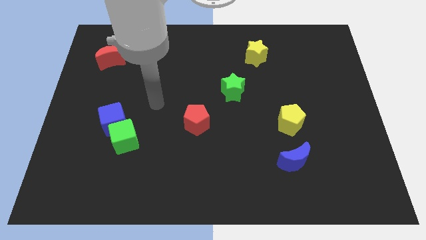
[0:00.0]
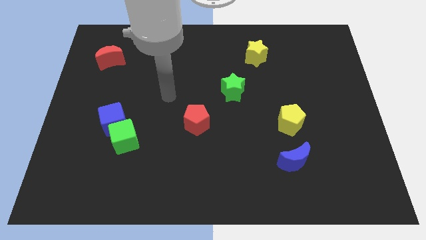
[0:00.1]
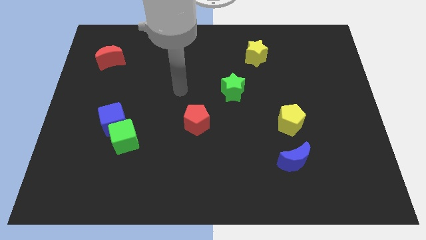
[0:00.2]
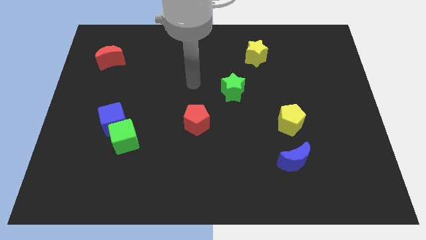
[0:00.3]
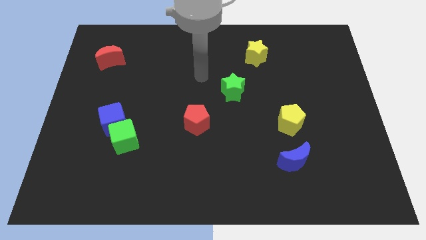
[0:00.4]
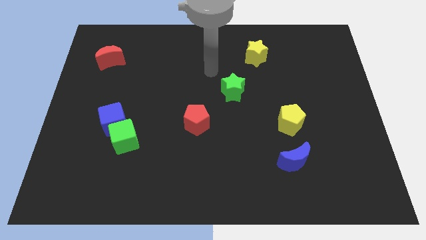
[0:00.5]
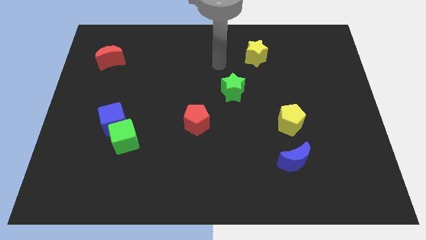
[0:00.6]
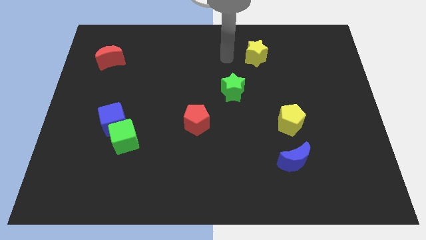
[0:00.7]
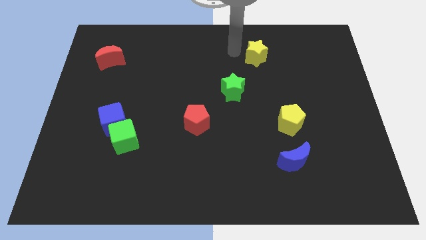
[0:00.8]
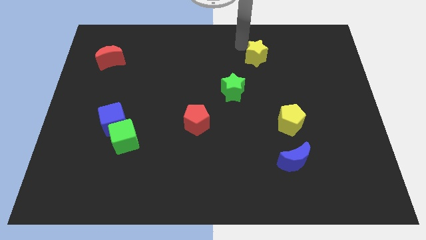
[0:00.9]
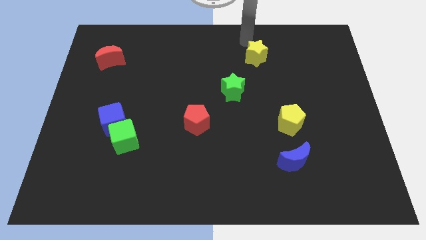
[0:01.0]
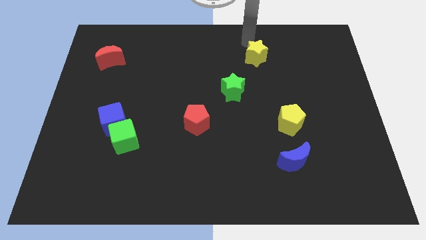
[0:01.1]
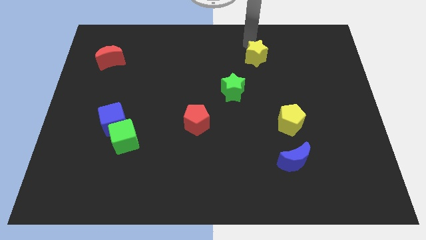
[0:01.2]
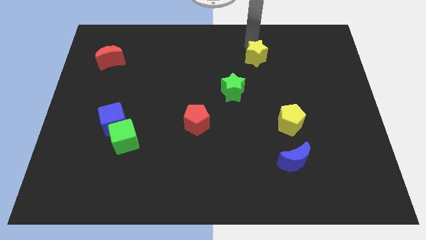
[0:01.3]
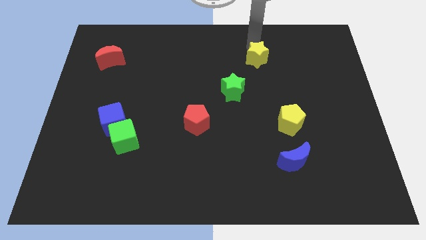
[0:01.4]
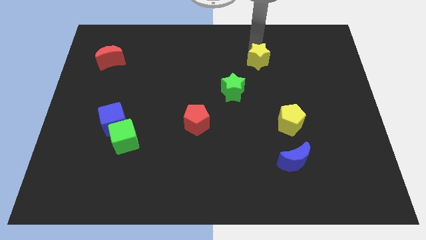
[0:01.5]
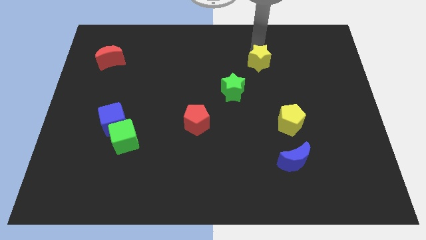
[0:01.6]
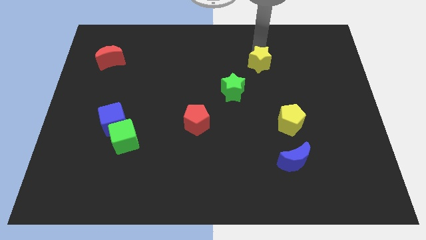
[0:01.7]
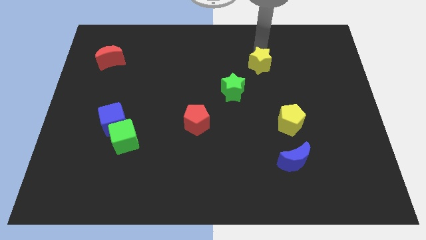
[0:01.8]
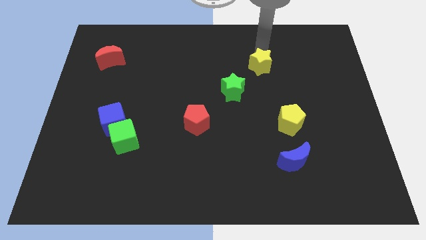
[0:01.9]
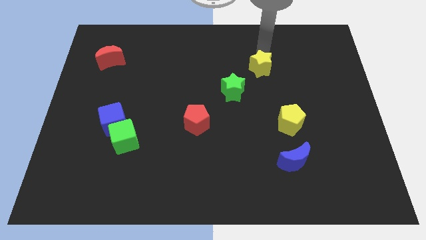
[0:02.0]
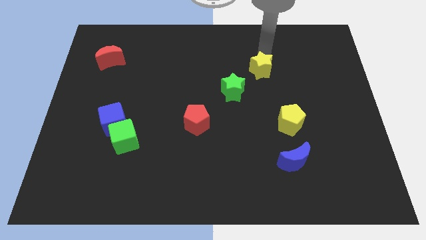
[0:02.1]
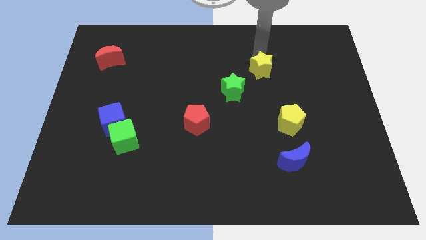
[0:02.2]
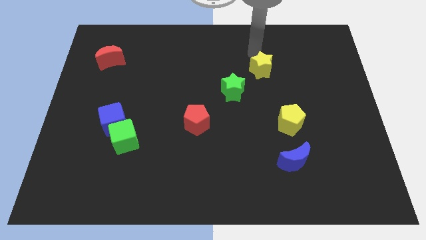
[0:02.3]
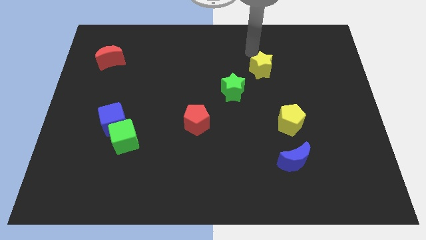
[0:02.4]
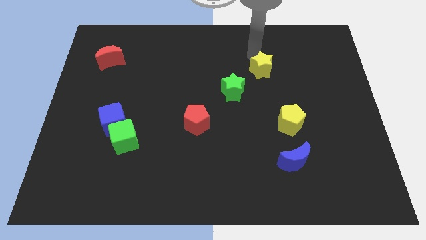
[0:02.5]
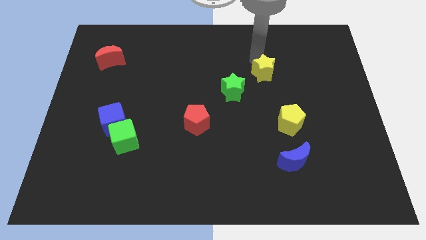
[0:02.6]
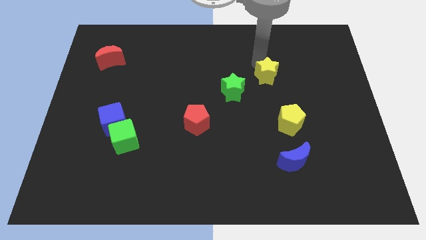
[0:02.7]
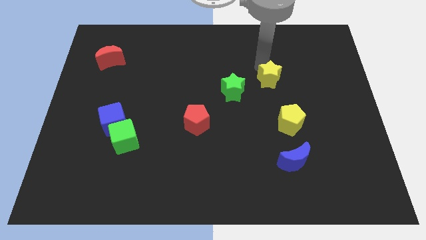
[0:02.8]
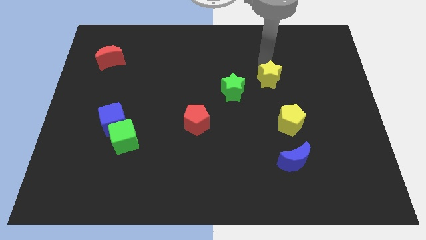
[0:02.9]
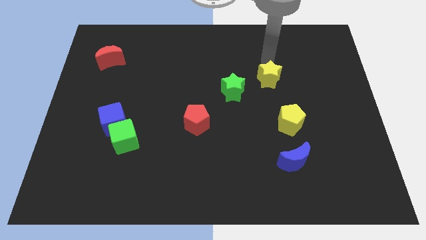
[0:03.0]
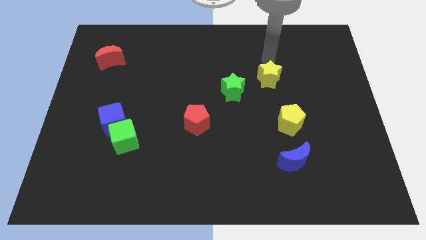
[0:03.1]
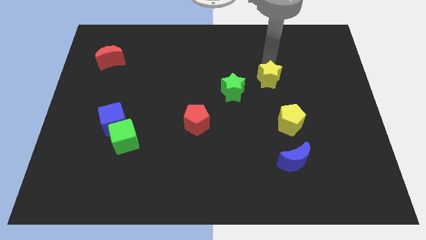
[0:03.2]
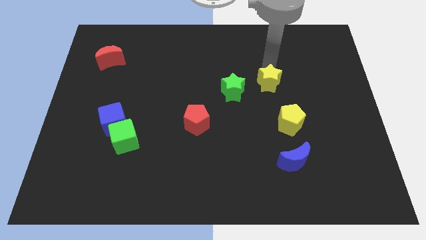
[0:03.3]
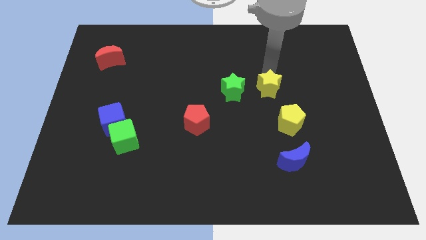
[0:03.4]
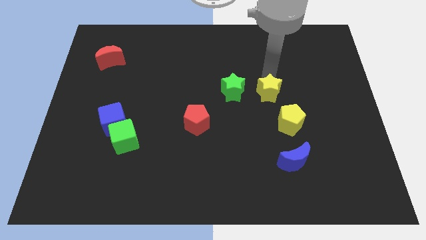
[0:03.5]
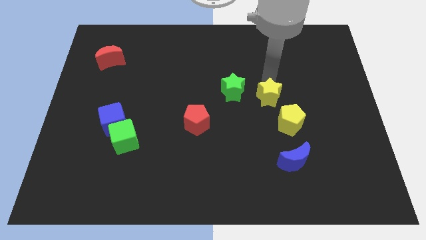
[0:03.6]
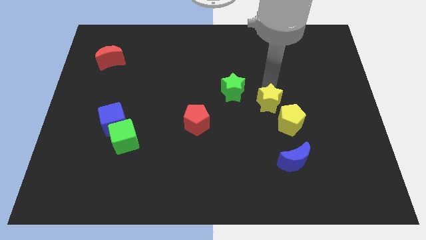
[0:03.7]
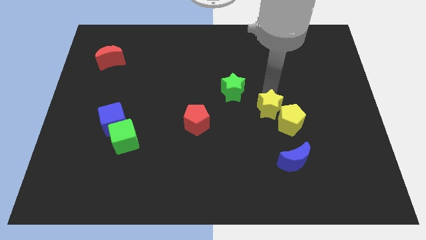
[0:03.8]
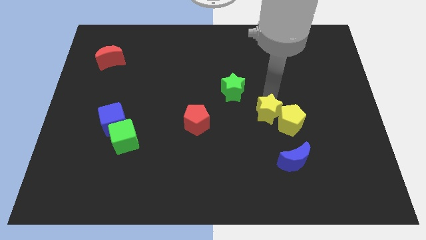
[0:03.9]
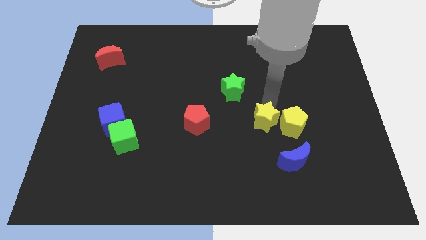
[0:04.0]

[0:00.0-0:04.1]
slide the yellow star downwards

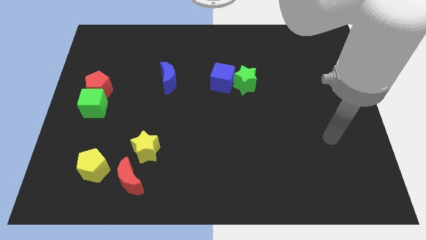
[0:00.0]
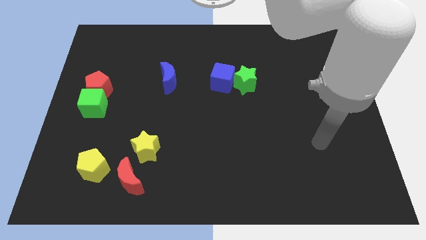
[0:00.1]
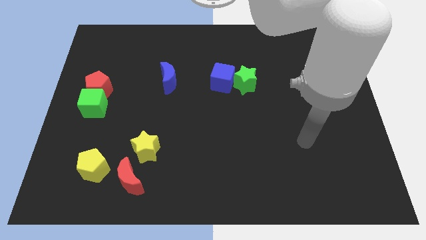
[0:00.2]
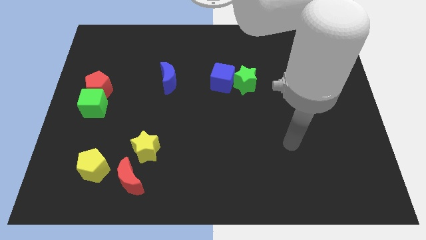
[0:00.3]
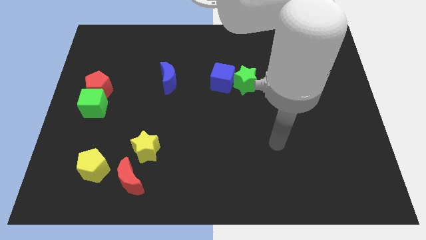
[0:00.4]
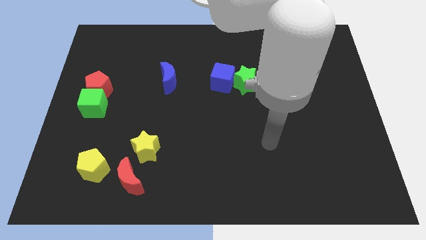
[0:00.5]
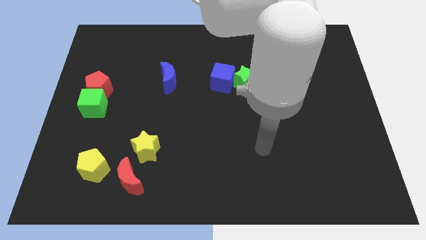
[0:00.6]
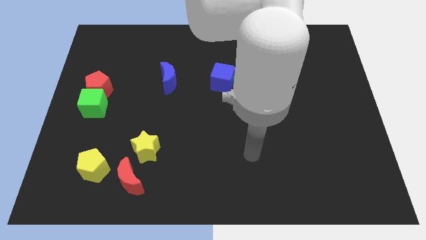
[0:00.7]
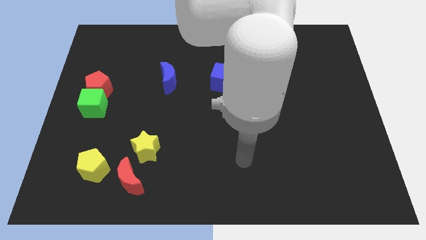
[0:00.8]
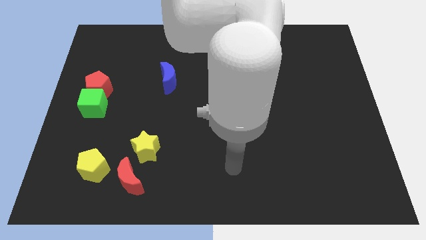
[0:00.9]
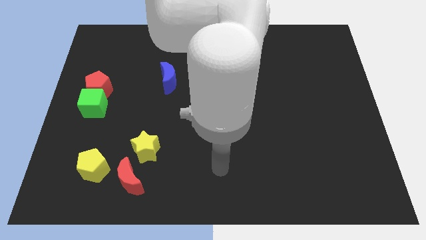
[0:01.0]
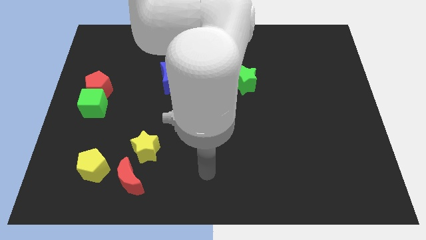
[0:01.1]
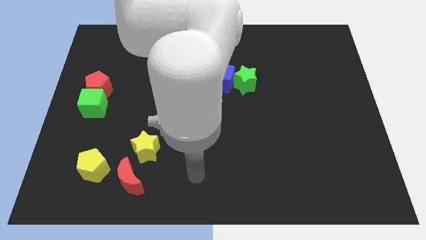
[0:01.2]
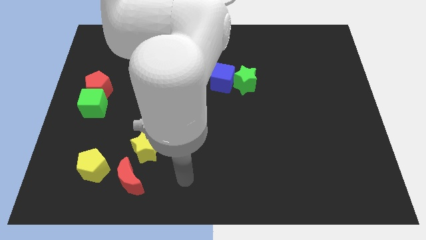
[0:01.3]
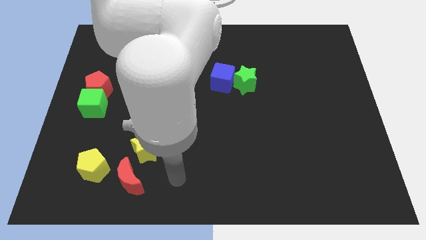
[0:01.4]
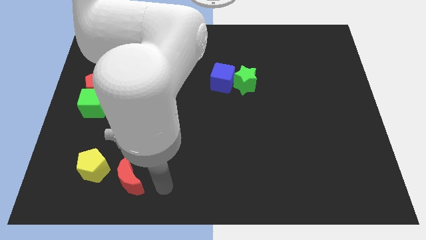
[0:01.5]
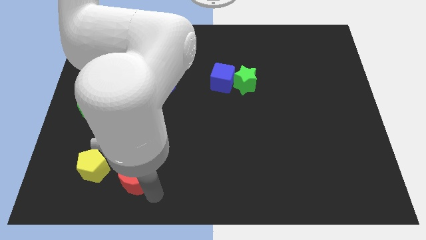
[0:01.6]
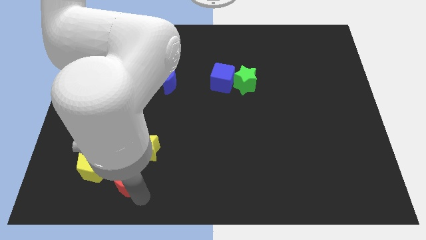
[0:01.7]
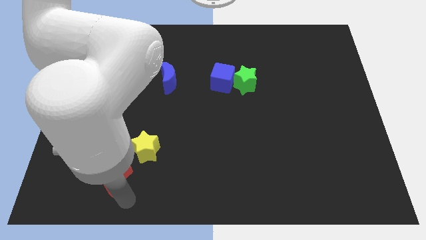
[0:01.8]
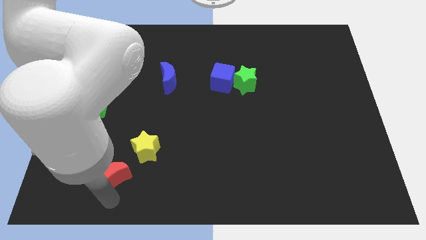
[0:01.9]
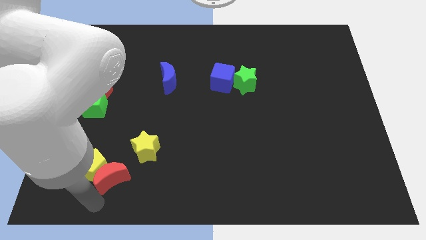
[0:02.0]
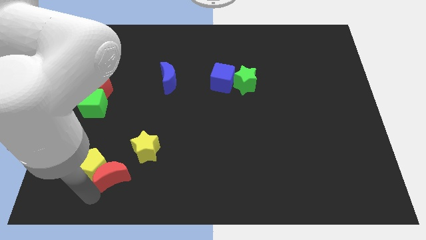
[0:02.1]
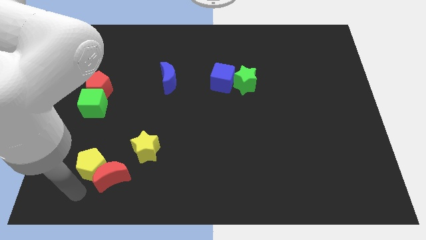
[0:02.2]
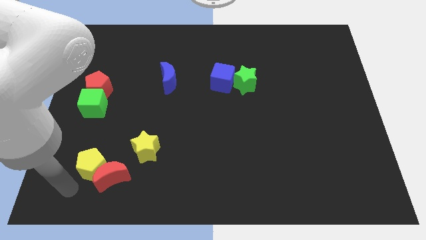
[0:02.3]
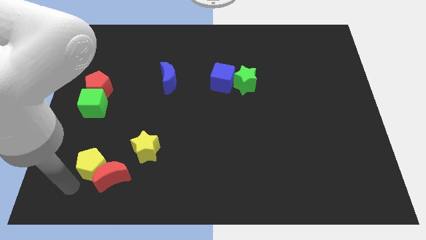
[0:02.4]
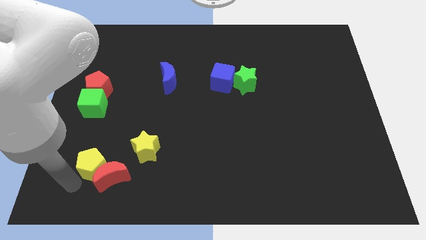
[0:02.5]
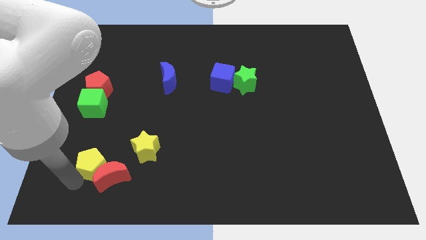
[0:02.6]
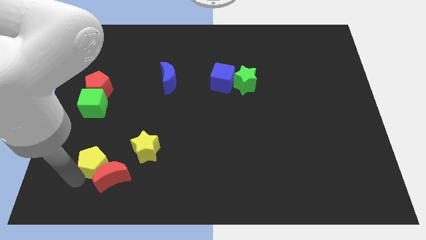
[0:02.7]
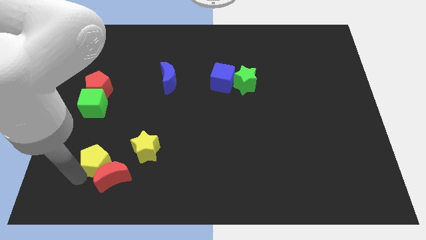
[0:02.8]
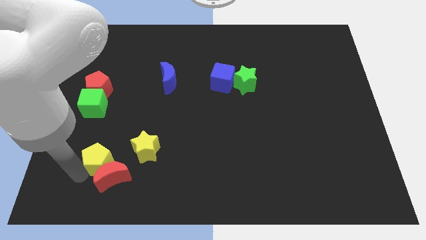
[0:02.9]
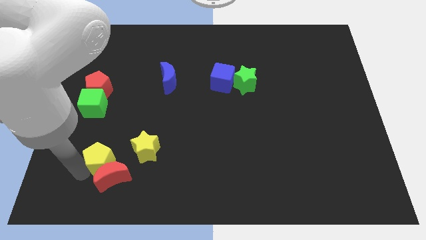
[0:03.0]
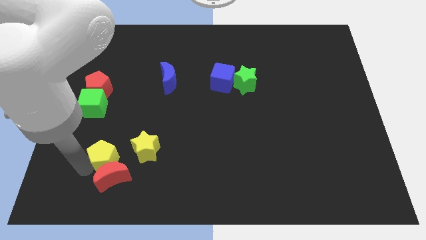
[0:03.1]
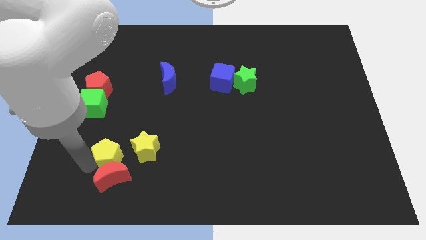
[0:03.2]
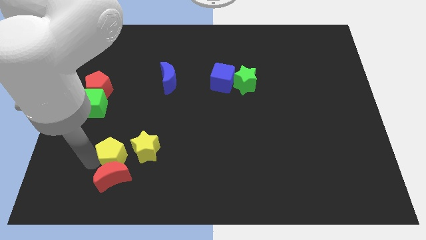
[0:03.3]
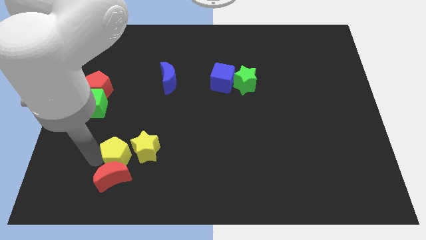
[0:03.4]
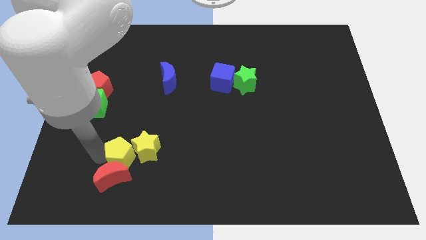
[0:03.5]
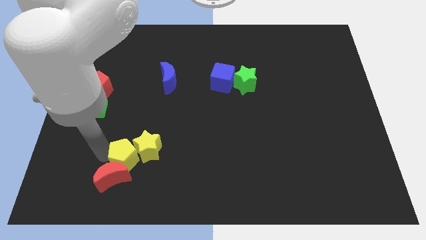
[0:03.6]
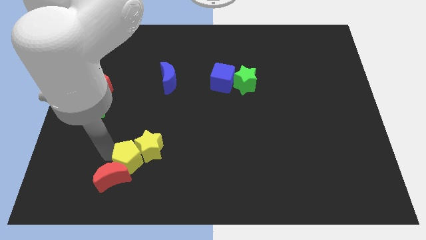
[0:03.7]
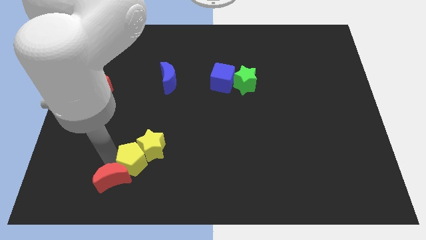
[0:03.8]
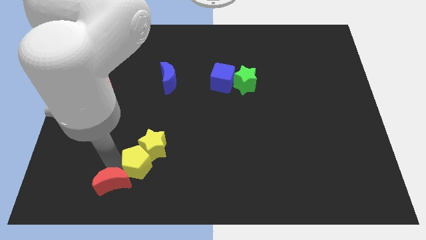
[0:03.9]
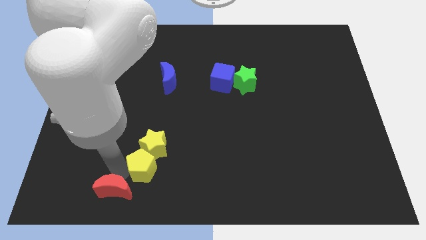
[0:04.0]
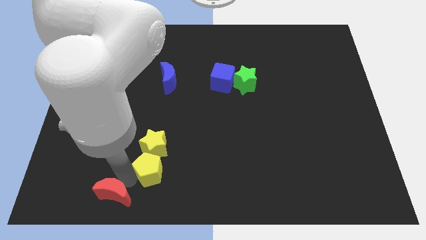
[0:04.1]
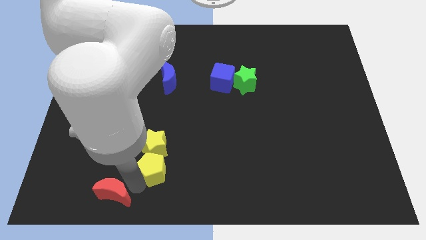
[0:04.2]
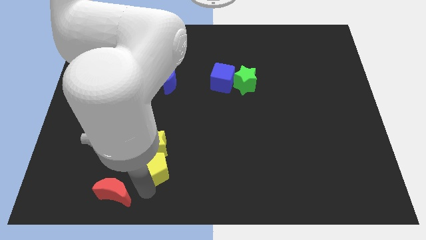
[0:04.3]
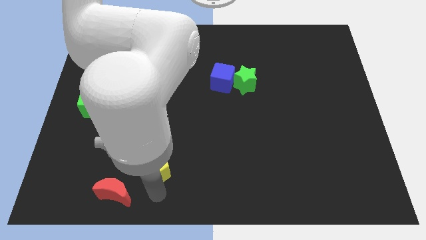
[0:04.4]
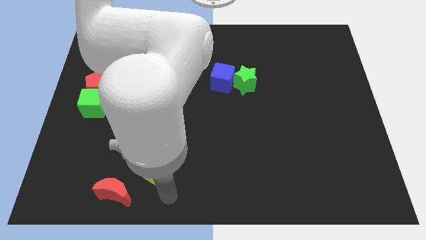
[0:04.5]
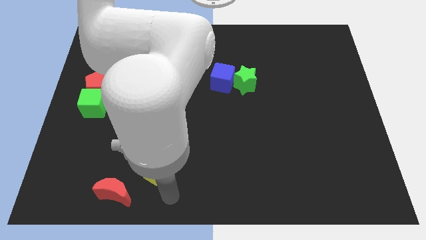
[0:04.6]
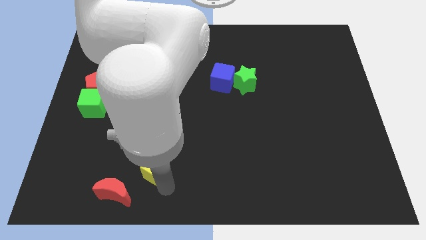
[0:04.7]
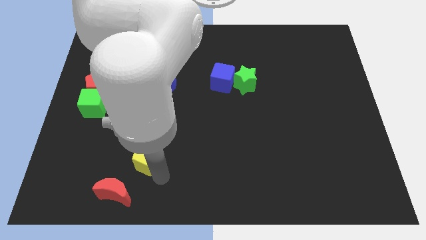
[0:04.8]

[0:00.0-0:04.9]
slide the yellow pentagon upwards and to the right a little bit
